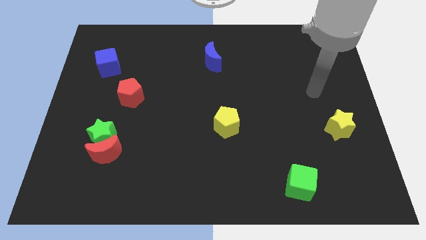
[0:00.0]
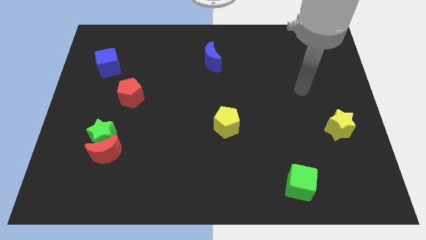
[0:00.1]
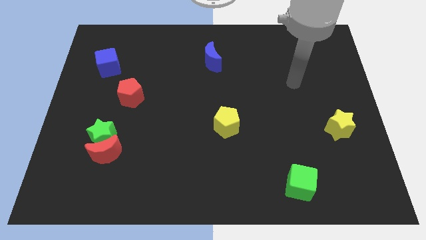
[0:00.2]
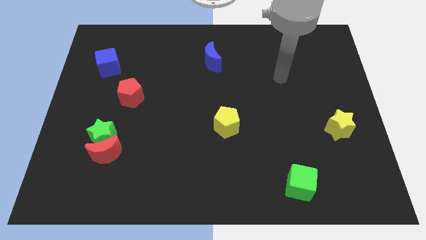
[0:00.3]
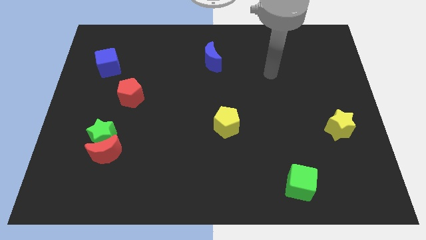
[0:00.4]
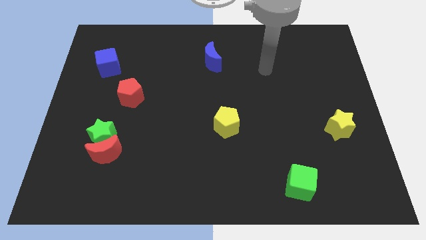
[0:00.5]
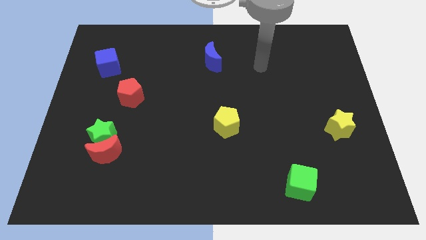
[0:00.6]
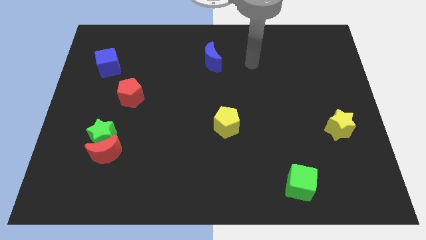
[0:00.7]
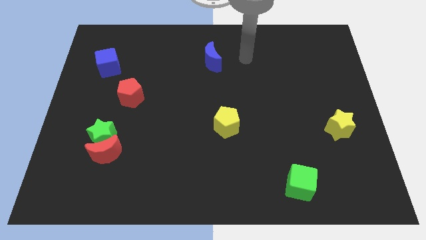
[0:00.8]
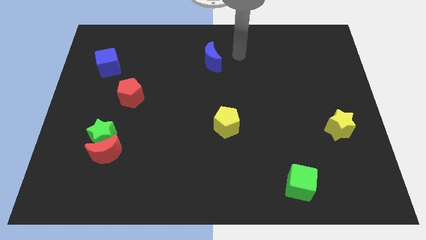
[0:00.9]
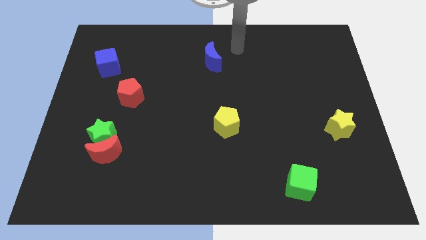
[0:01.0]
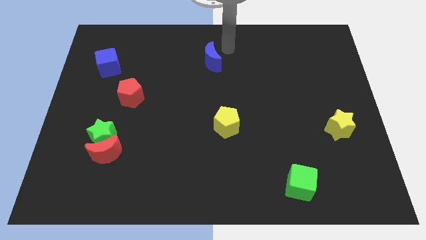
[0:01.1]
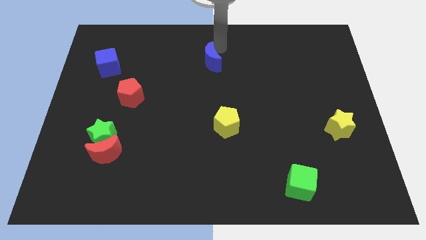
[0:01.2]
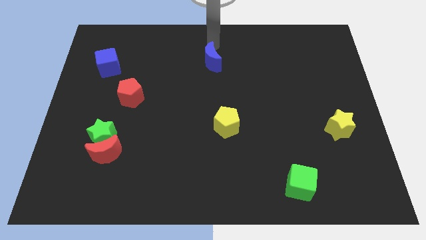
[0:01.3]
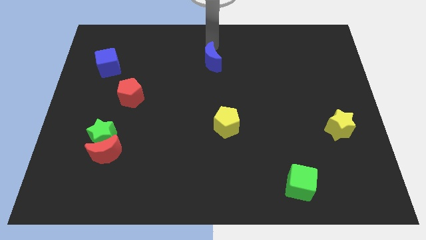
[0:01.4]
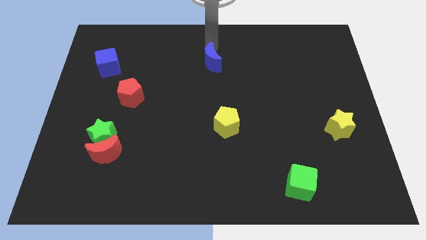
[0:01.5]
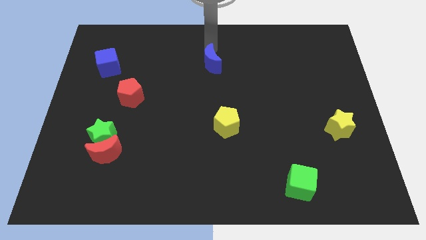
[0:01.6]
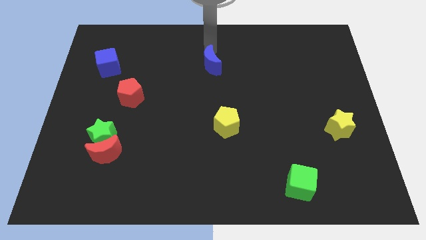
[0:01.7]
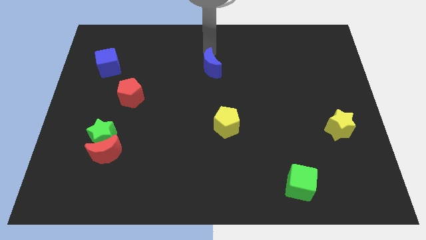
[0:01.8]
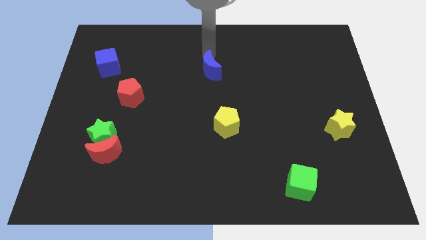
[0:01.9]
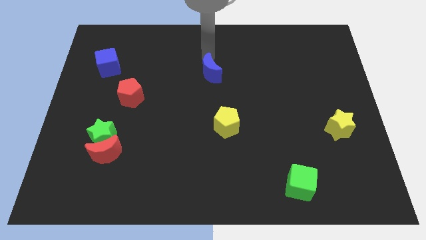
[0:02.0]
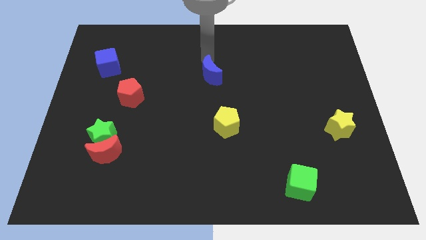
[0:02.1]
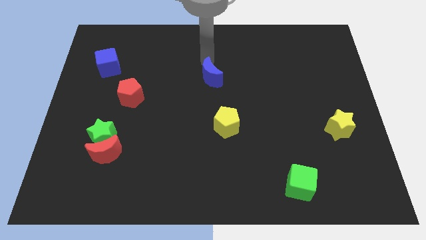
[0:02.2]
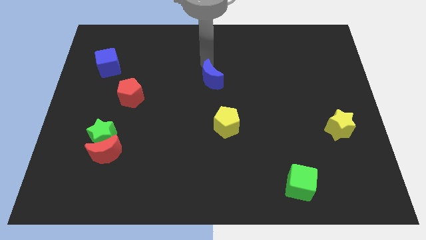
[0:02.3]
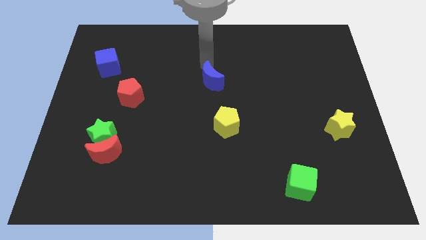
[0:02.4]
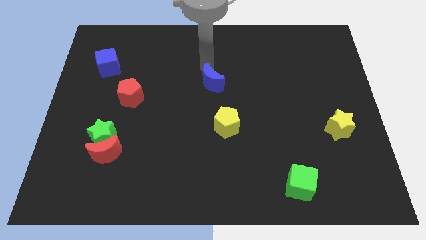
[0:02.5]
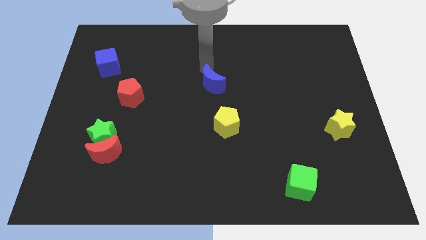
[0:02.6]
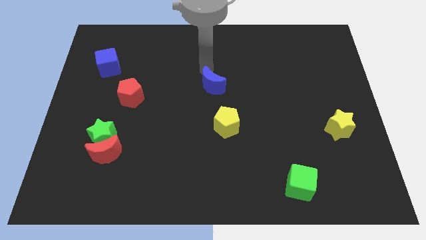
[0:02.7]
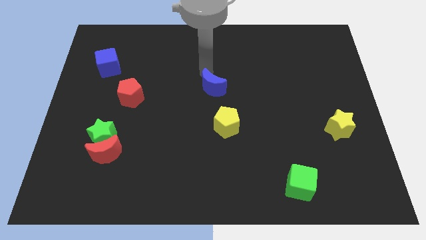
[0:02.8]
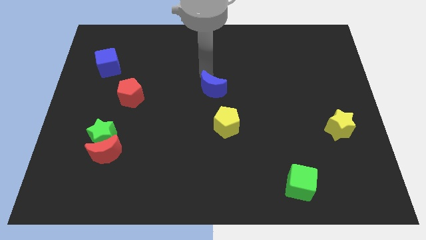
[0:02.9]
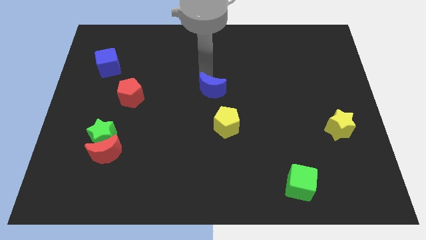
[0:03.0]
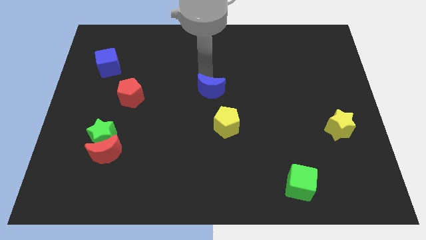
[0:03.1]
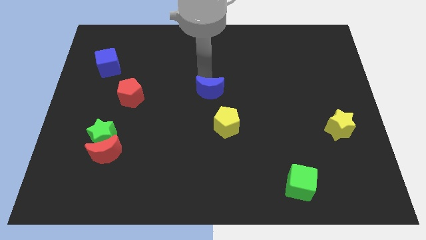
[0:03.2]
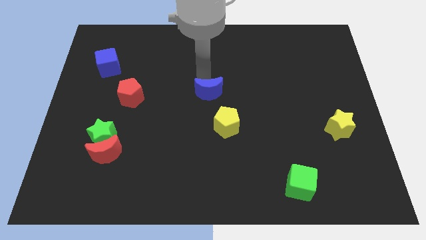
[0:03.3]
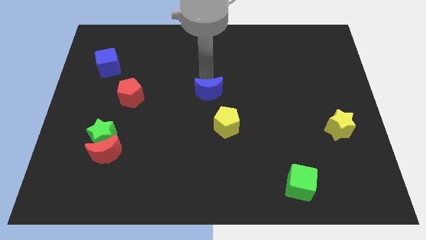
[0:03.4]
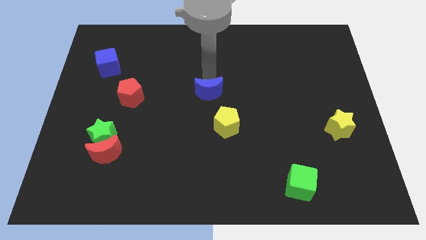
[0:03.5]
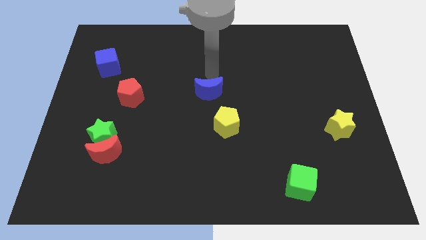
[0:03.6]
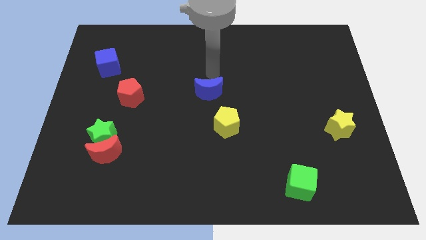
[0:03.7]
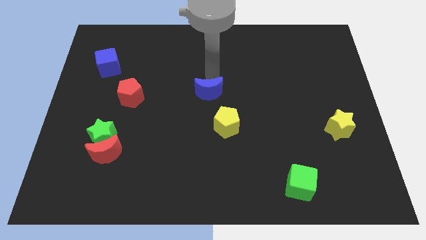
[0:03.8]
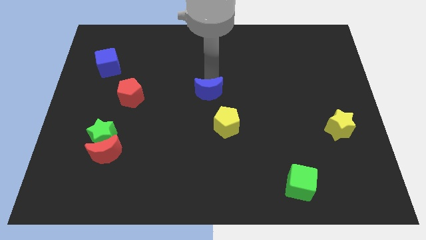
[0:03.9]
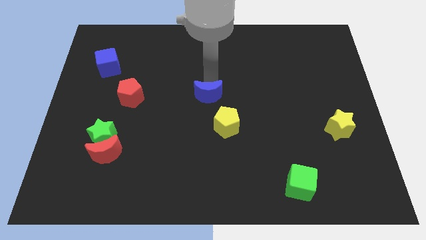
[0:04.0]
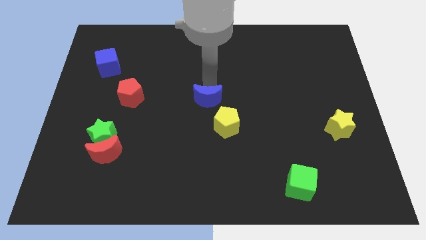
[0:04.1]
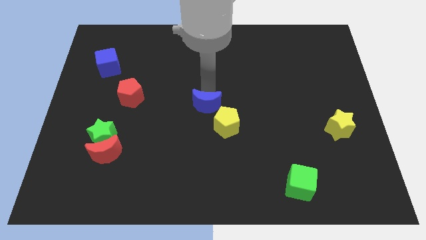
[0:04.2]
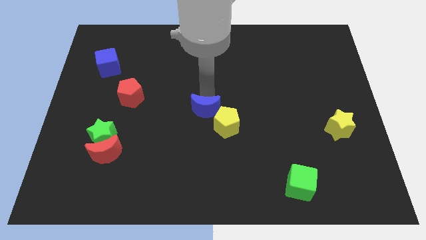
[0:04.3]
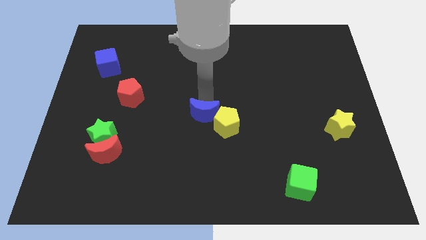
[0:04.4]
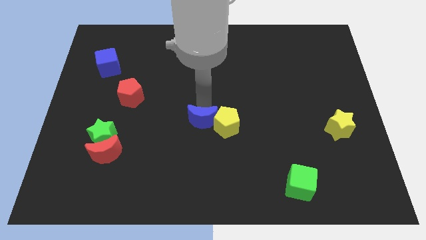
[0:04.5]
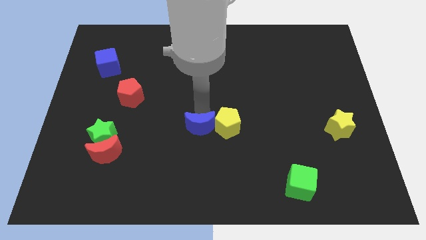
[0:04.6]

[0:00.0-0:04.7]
push the blue moon downwards

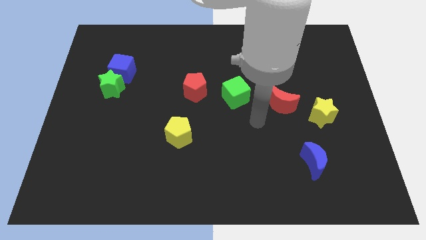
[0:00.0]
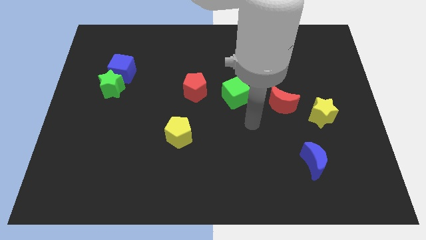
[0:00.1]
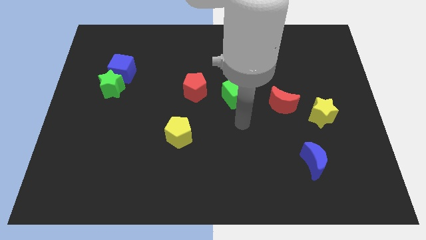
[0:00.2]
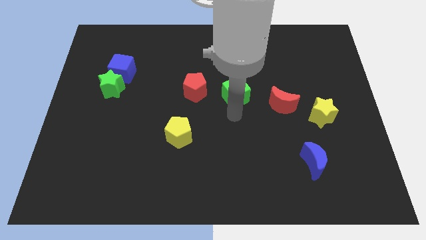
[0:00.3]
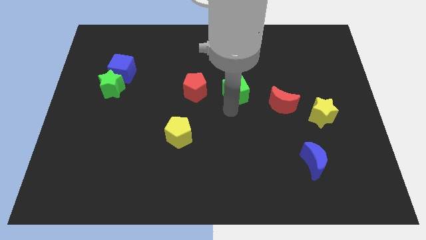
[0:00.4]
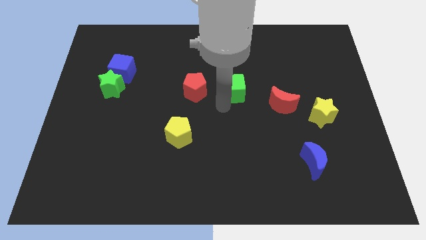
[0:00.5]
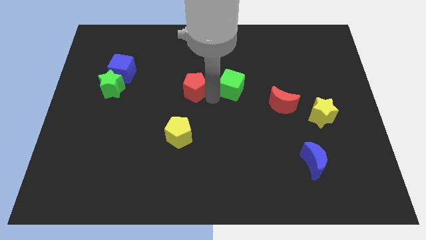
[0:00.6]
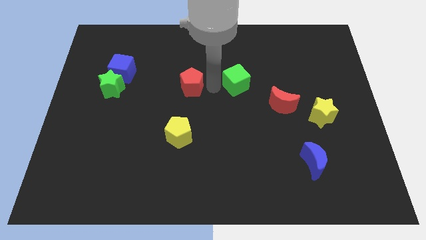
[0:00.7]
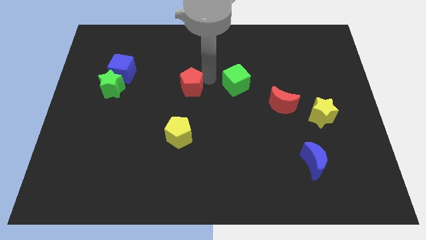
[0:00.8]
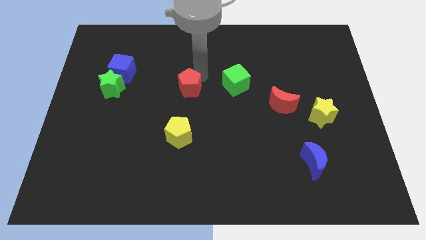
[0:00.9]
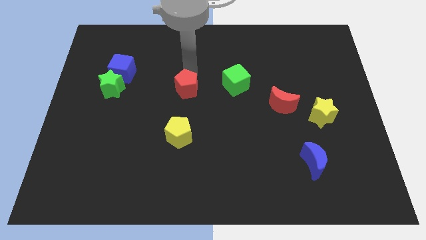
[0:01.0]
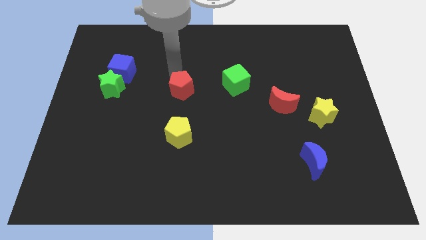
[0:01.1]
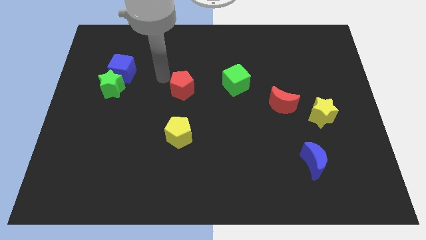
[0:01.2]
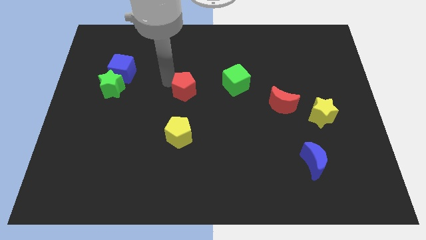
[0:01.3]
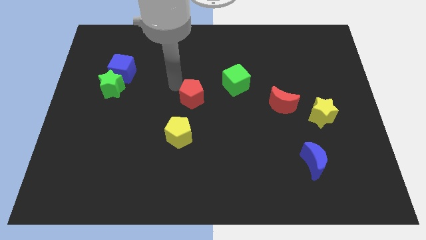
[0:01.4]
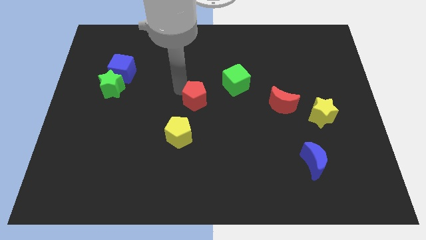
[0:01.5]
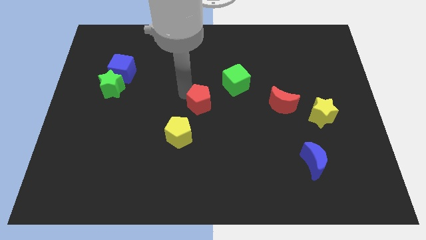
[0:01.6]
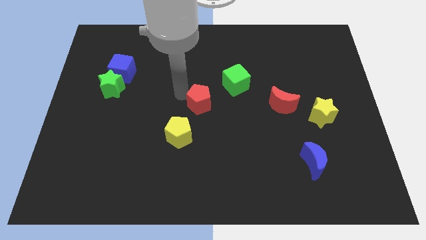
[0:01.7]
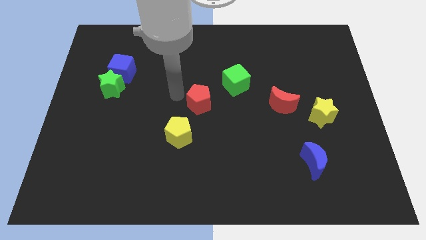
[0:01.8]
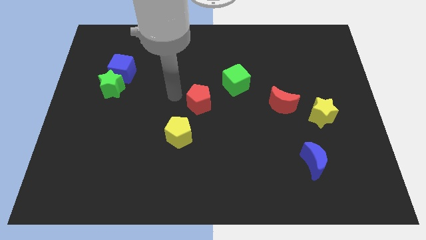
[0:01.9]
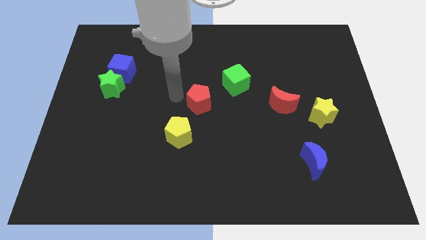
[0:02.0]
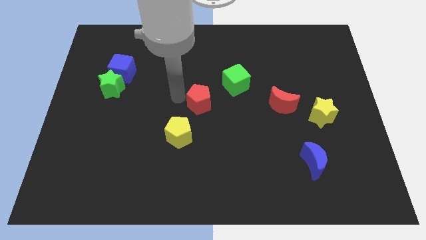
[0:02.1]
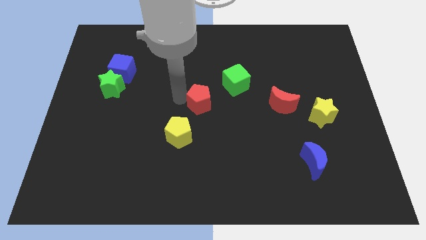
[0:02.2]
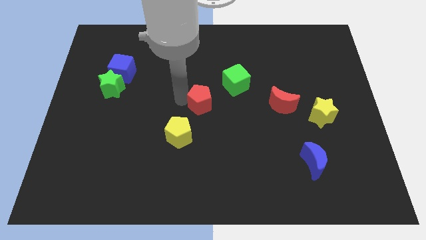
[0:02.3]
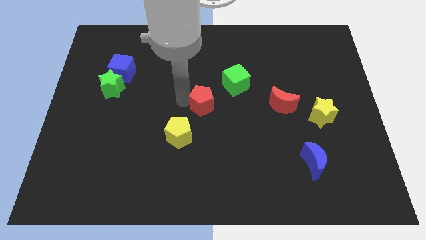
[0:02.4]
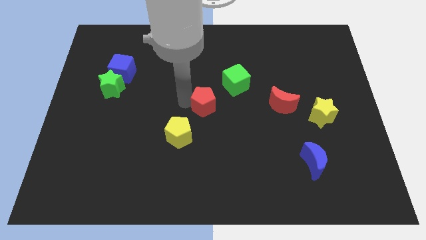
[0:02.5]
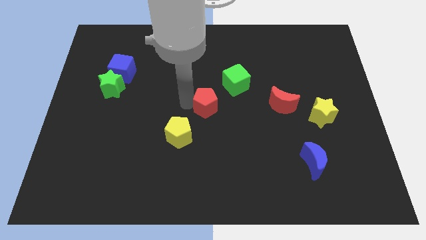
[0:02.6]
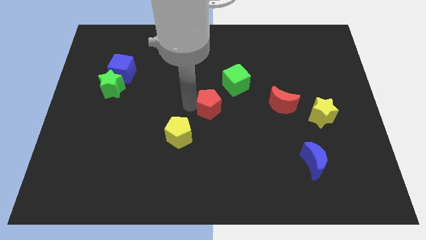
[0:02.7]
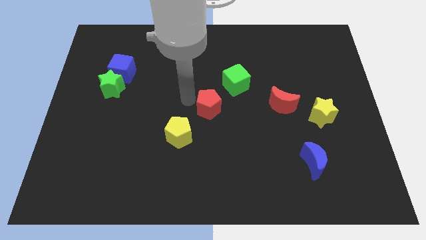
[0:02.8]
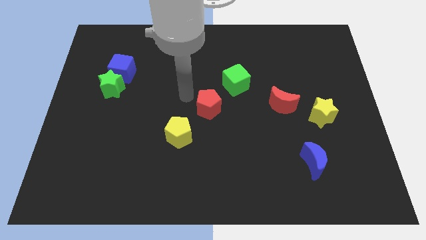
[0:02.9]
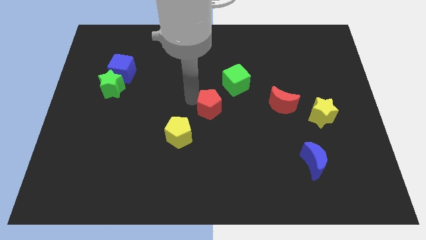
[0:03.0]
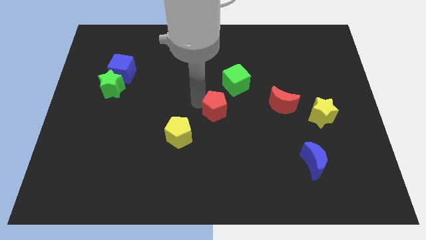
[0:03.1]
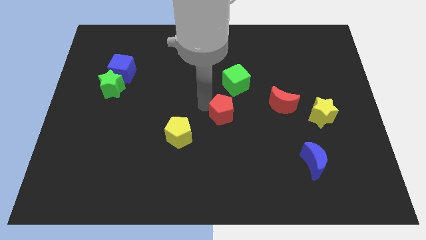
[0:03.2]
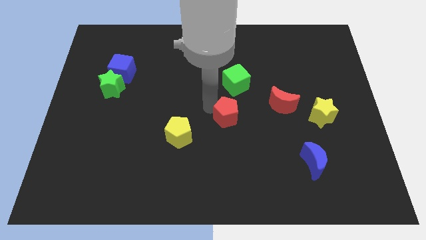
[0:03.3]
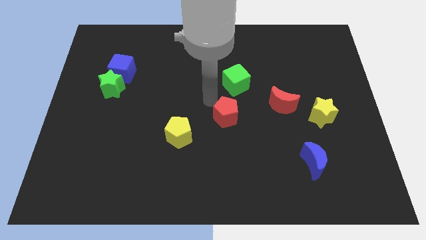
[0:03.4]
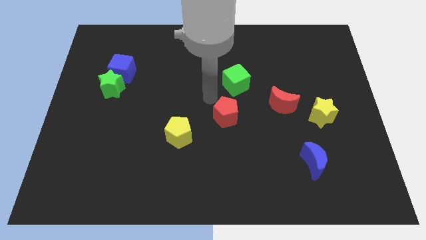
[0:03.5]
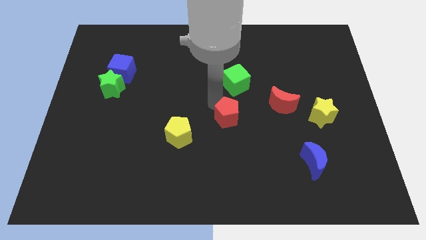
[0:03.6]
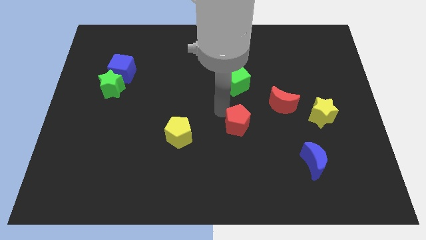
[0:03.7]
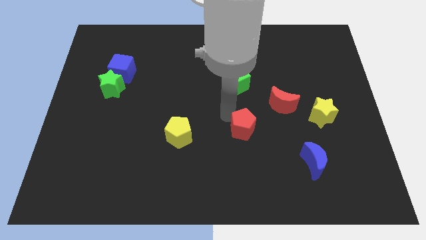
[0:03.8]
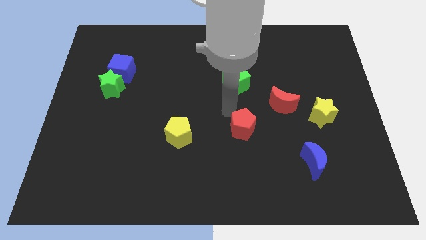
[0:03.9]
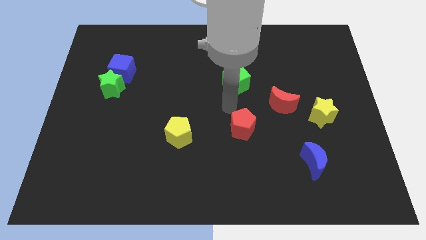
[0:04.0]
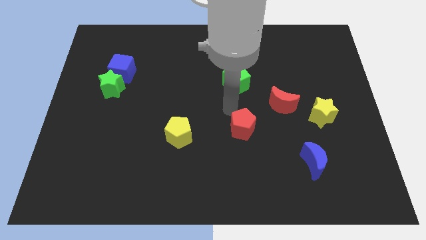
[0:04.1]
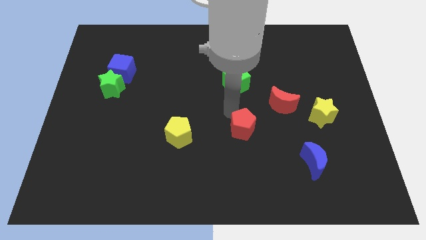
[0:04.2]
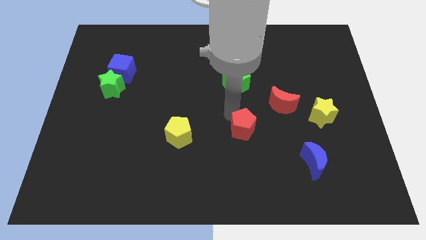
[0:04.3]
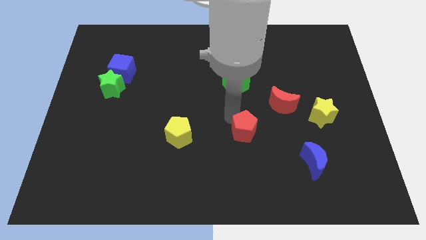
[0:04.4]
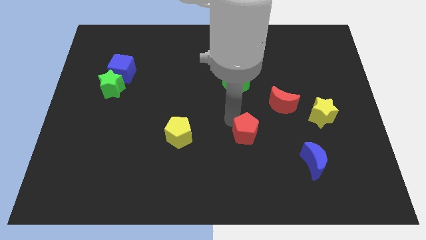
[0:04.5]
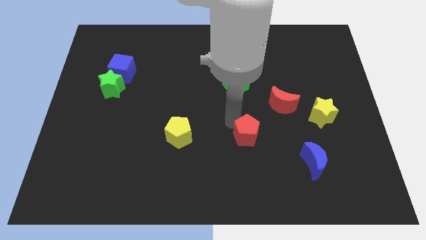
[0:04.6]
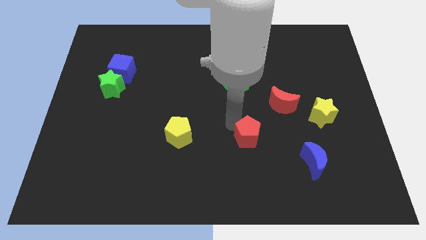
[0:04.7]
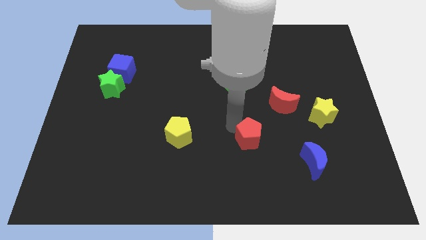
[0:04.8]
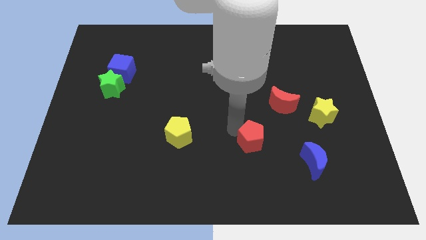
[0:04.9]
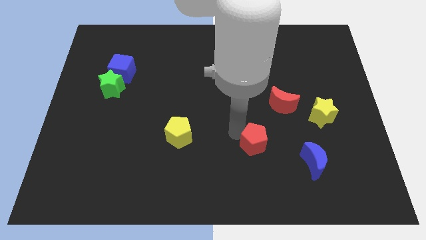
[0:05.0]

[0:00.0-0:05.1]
move the red pentagon down and to the right
